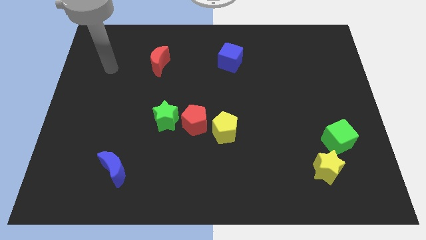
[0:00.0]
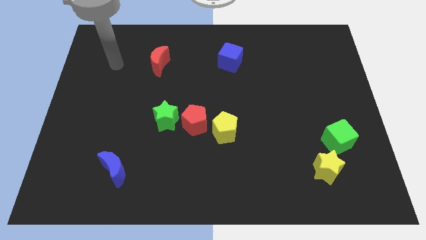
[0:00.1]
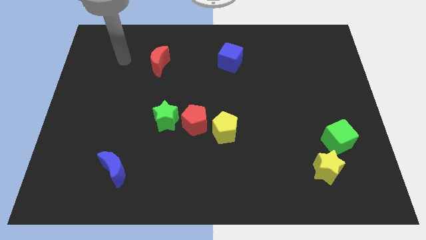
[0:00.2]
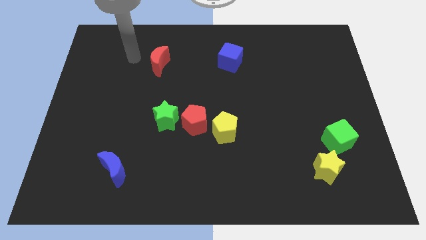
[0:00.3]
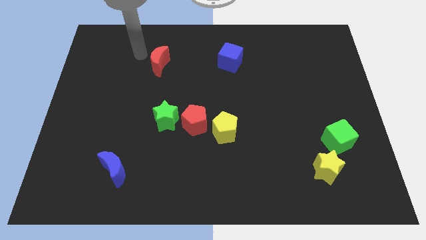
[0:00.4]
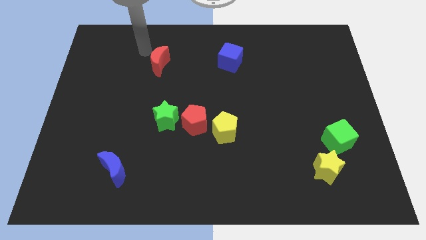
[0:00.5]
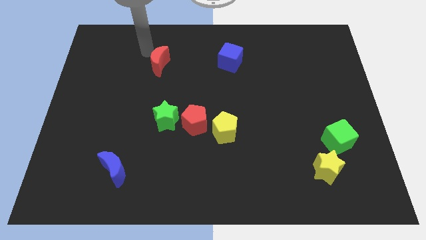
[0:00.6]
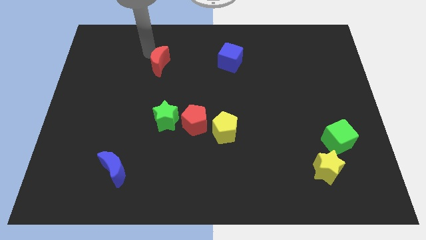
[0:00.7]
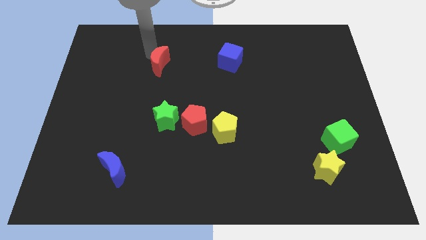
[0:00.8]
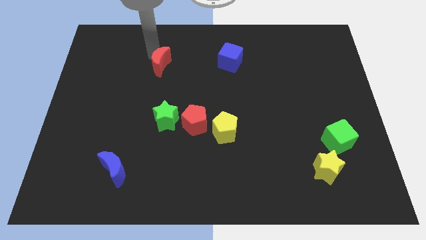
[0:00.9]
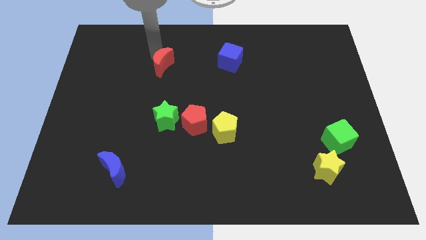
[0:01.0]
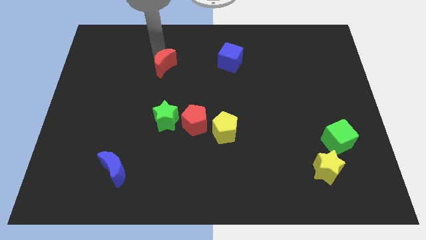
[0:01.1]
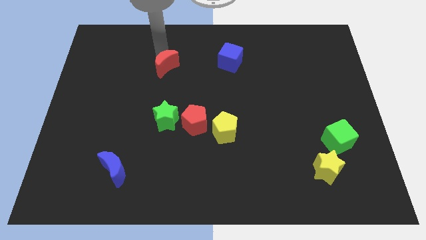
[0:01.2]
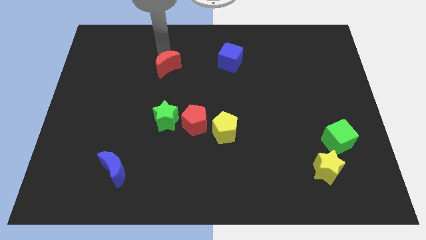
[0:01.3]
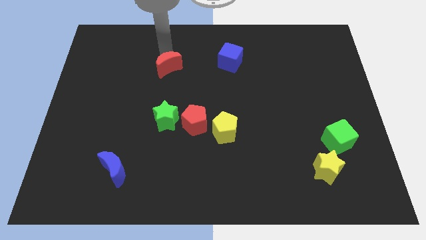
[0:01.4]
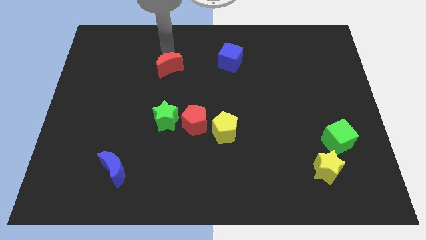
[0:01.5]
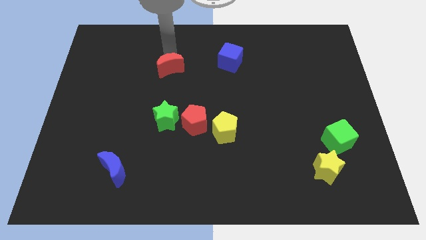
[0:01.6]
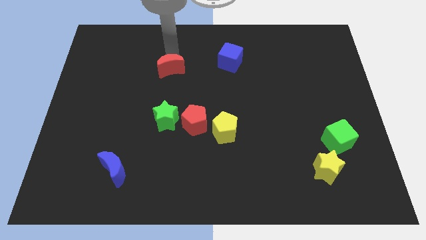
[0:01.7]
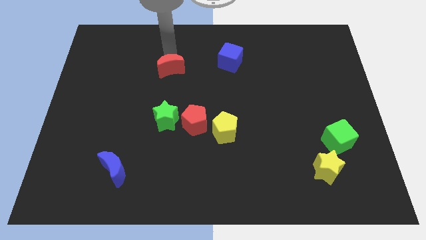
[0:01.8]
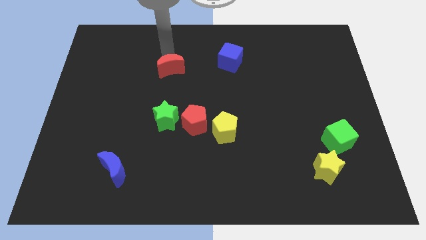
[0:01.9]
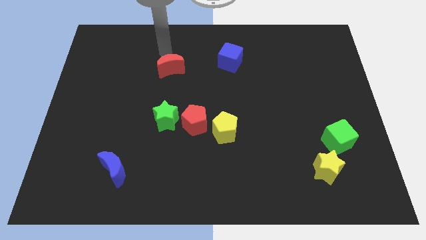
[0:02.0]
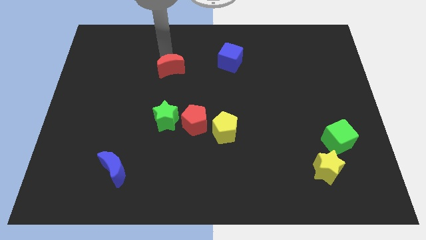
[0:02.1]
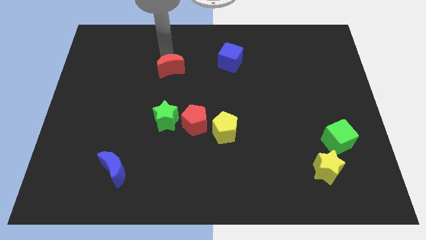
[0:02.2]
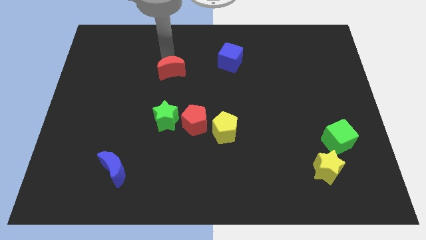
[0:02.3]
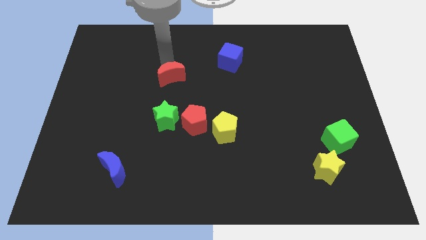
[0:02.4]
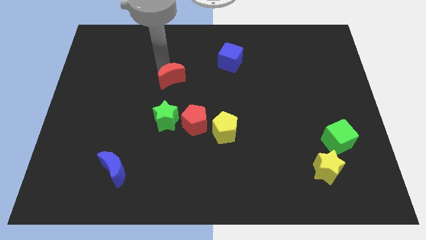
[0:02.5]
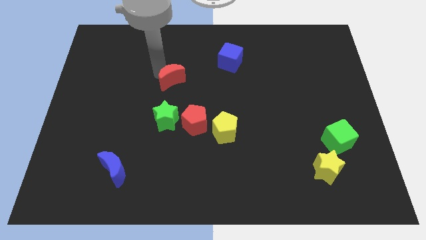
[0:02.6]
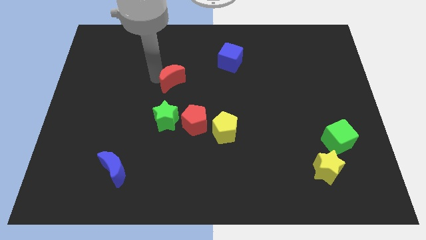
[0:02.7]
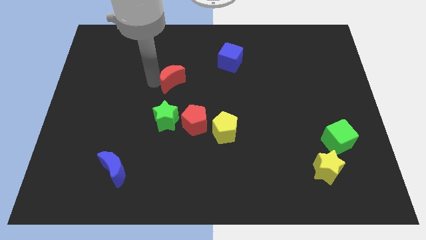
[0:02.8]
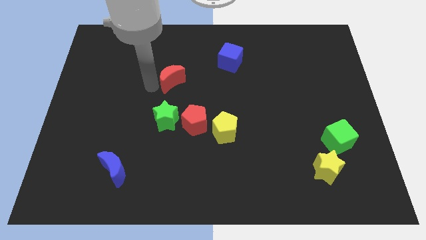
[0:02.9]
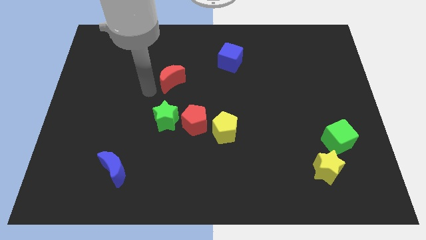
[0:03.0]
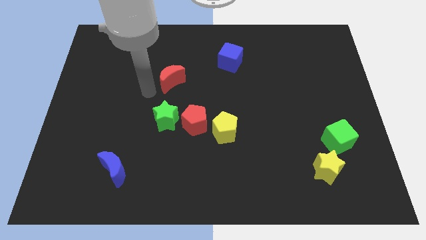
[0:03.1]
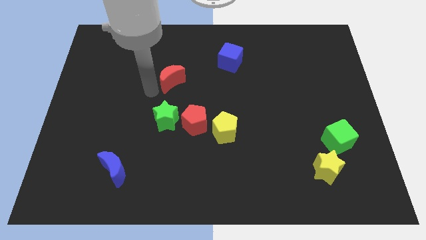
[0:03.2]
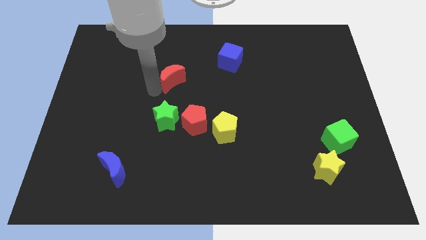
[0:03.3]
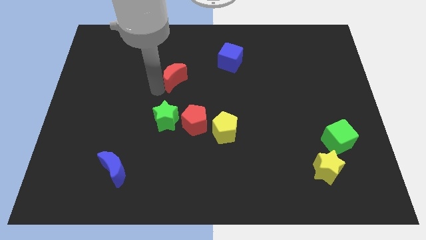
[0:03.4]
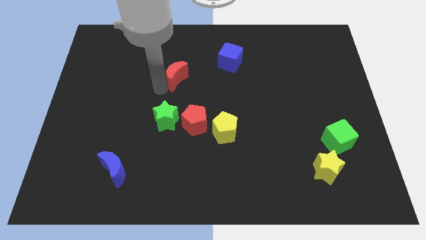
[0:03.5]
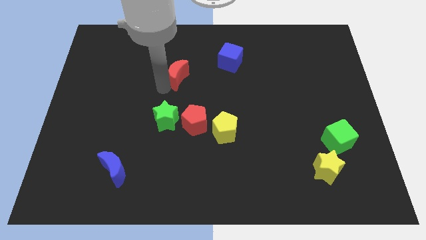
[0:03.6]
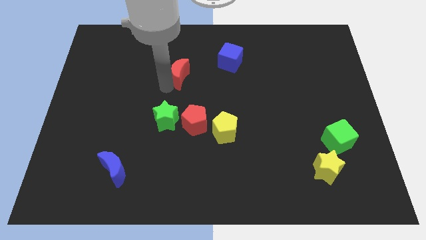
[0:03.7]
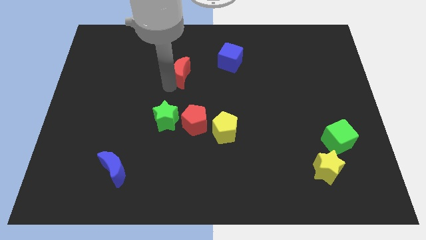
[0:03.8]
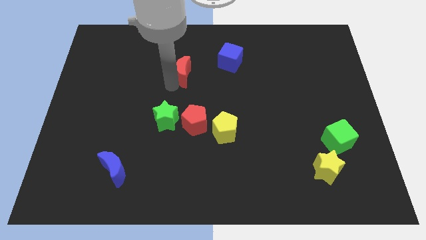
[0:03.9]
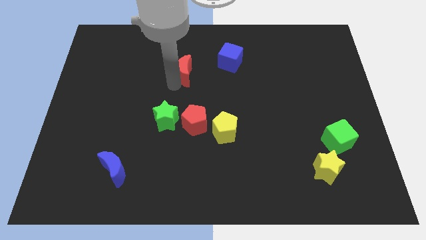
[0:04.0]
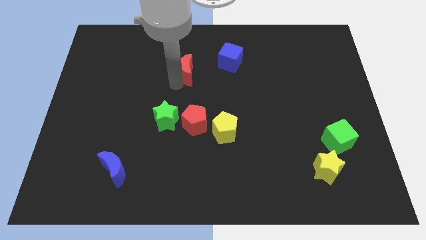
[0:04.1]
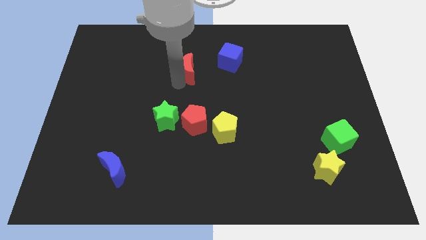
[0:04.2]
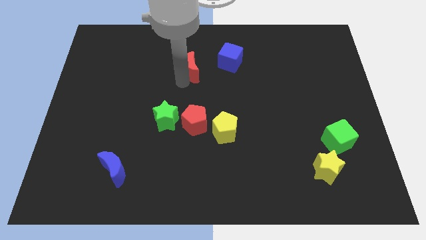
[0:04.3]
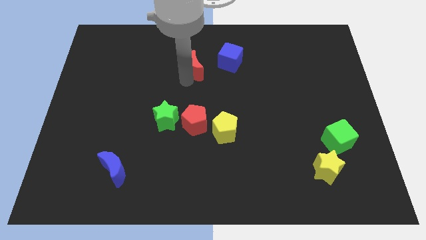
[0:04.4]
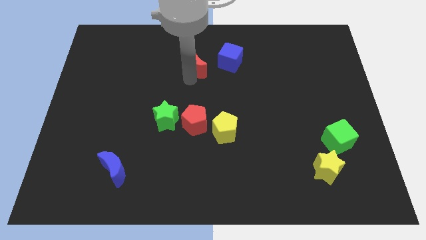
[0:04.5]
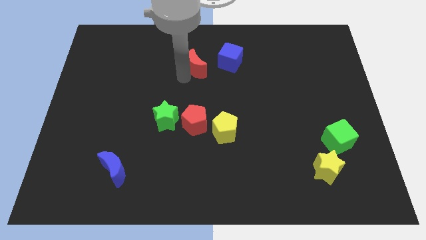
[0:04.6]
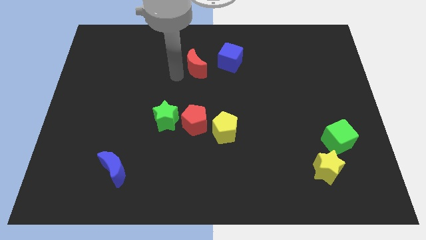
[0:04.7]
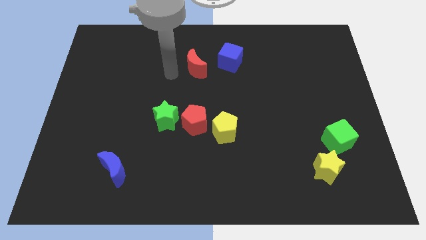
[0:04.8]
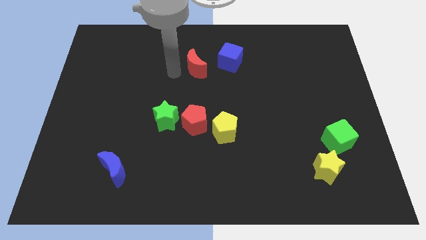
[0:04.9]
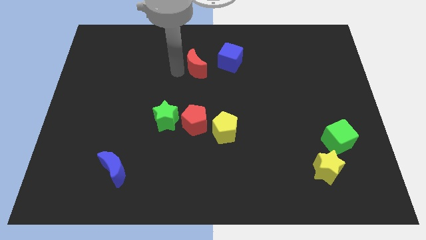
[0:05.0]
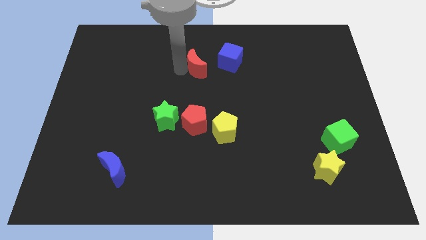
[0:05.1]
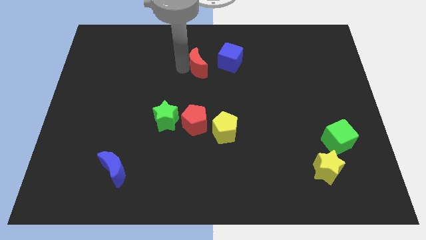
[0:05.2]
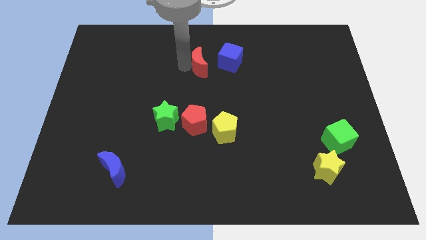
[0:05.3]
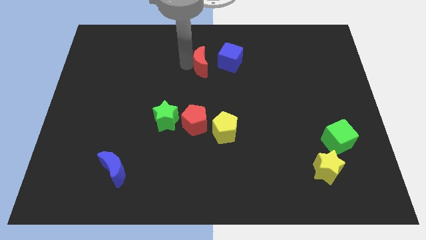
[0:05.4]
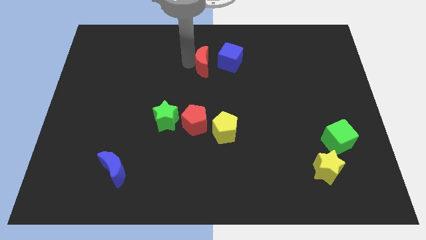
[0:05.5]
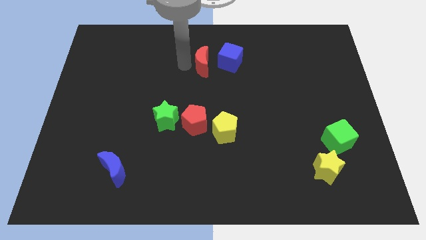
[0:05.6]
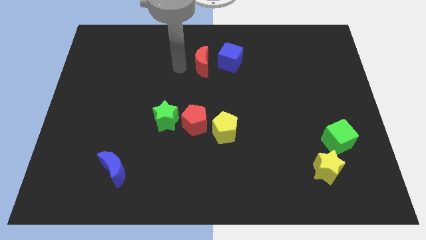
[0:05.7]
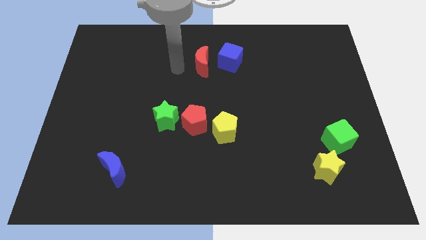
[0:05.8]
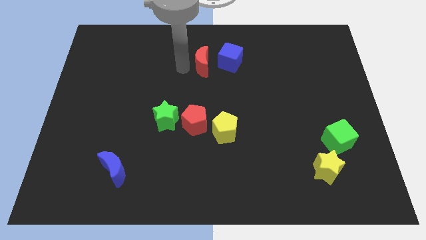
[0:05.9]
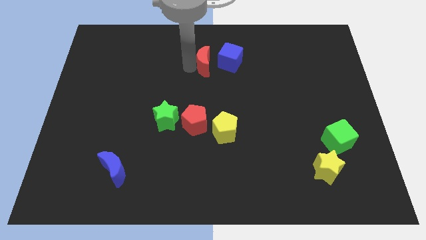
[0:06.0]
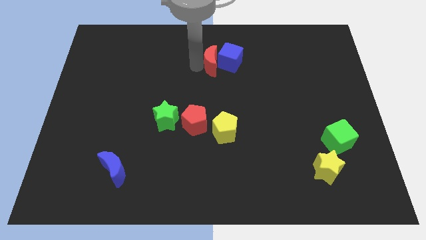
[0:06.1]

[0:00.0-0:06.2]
push the red moon towards the blue cube
